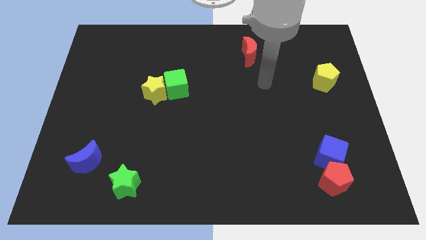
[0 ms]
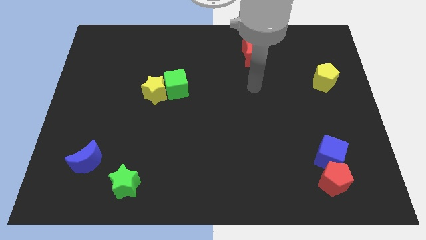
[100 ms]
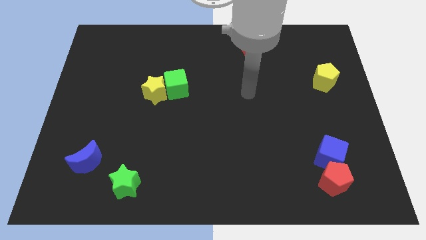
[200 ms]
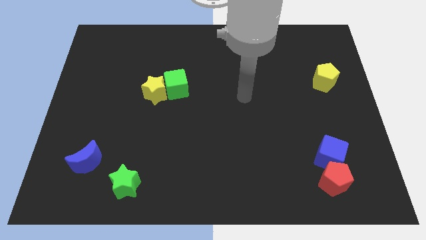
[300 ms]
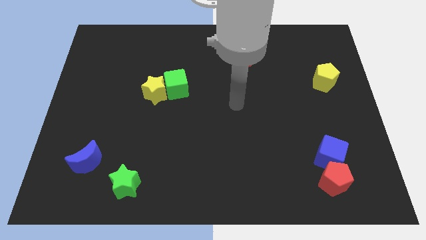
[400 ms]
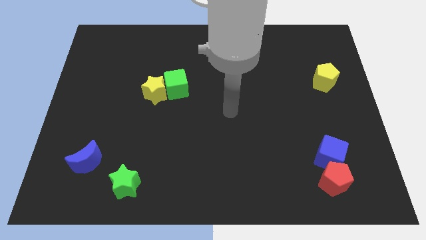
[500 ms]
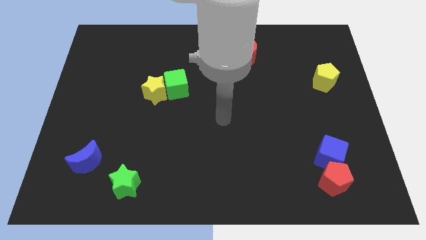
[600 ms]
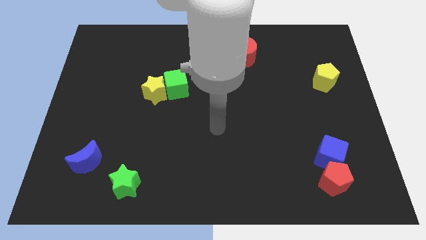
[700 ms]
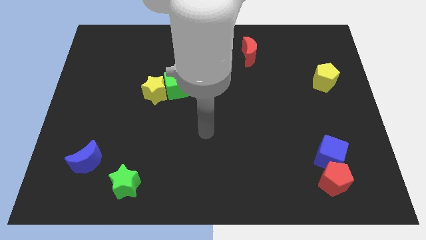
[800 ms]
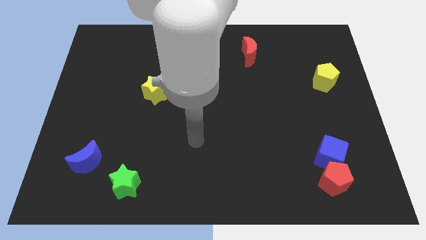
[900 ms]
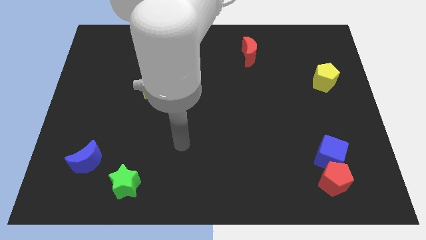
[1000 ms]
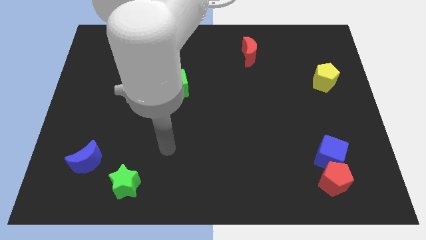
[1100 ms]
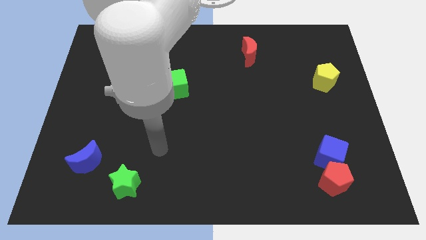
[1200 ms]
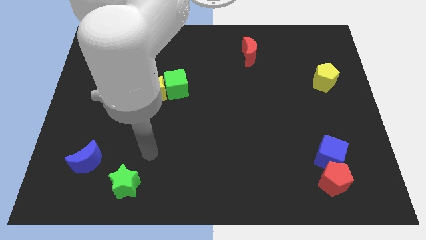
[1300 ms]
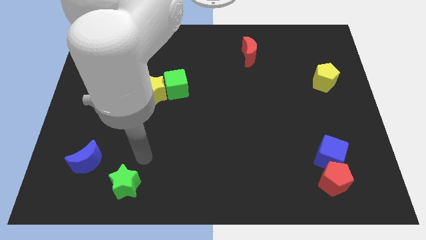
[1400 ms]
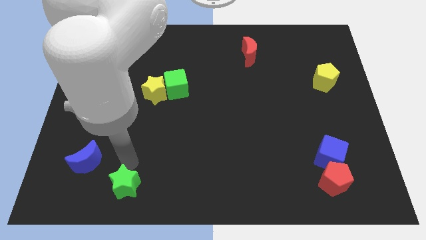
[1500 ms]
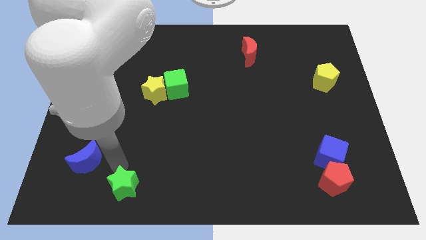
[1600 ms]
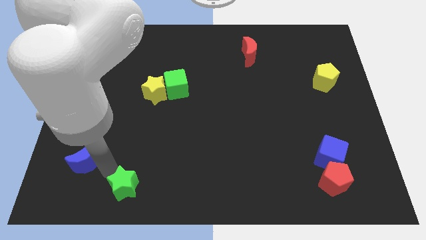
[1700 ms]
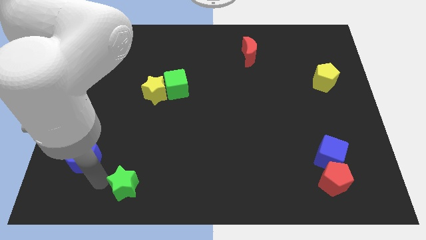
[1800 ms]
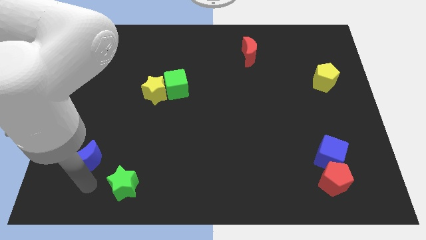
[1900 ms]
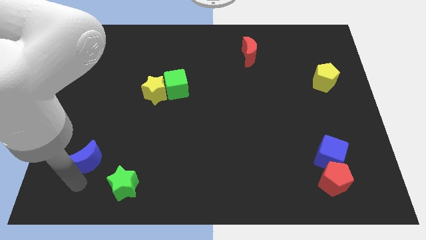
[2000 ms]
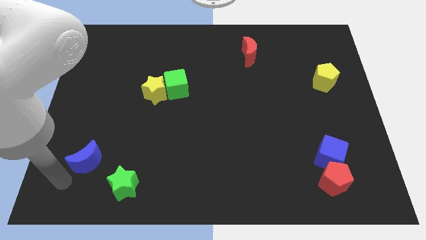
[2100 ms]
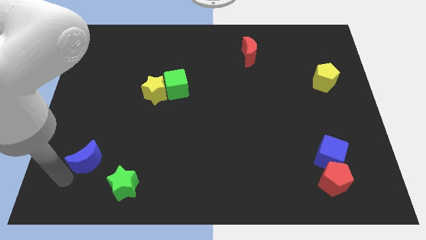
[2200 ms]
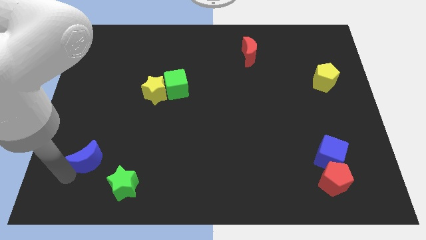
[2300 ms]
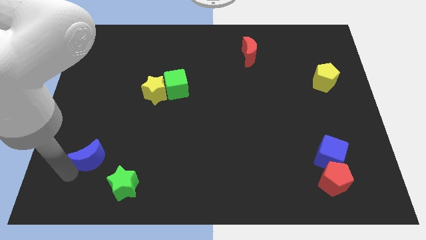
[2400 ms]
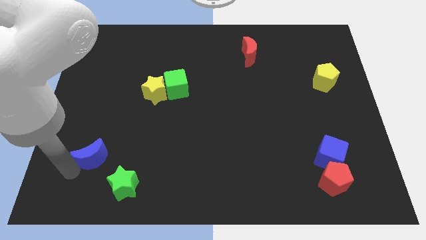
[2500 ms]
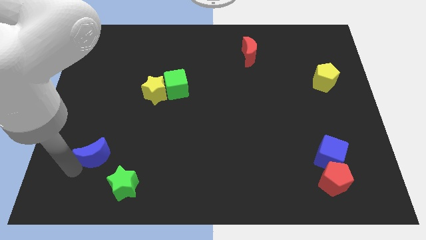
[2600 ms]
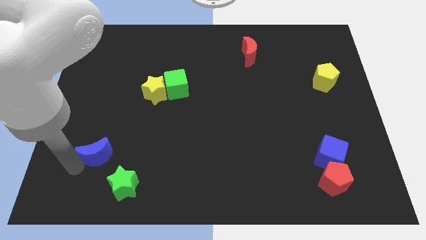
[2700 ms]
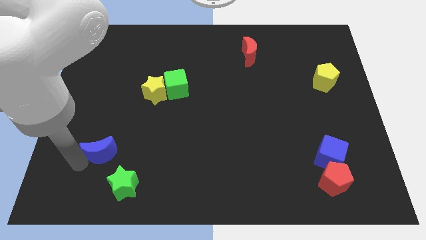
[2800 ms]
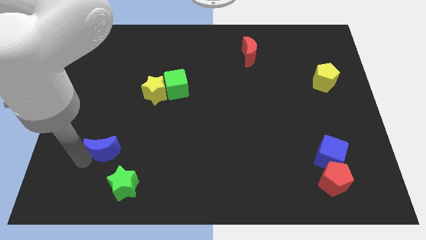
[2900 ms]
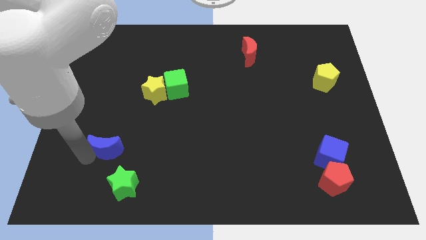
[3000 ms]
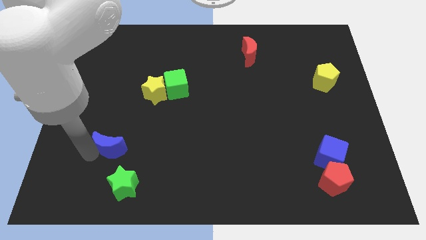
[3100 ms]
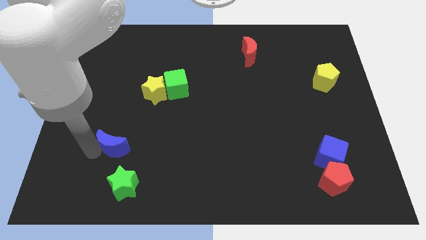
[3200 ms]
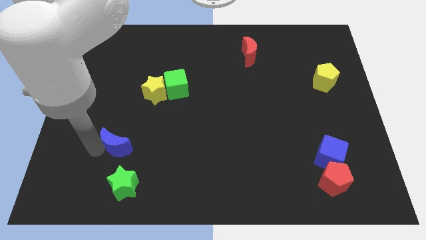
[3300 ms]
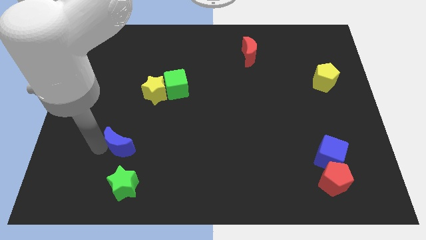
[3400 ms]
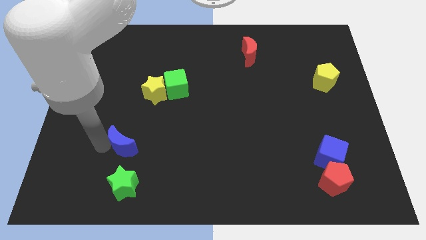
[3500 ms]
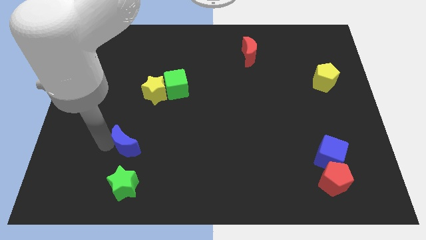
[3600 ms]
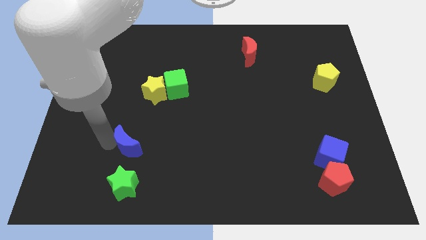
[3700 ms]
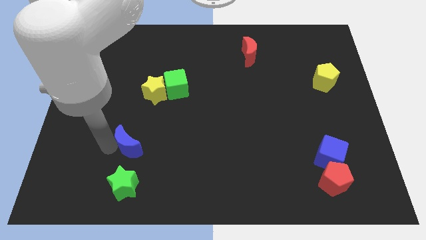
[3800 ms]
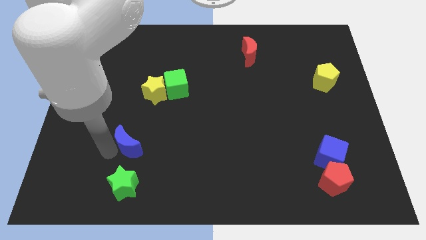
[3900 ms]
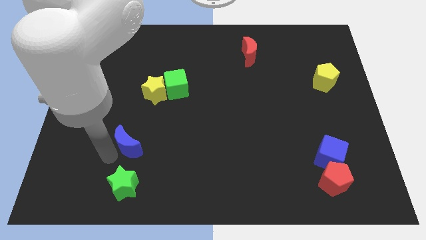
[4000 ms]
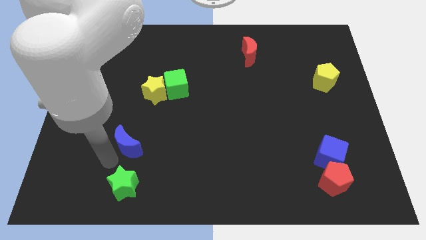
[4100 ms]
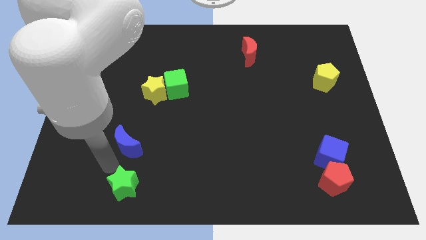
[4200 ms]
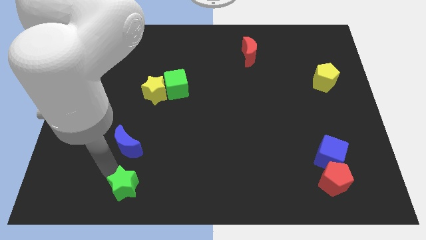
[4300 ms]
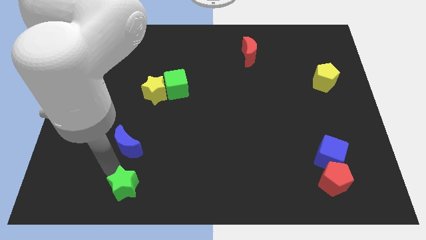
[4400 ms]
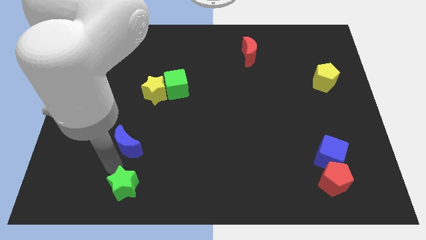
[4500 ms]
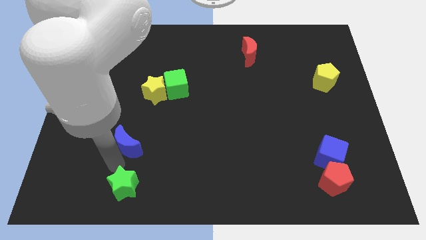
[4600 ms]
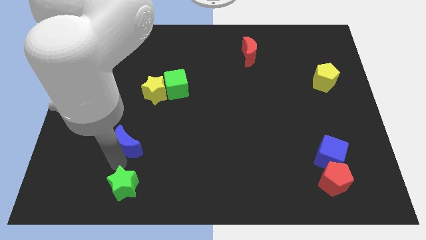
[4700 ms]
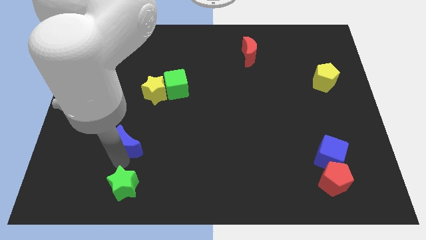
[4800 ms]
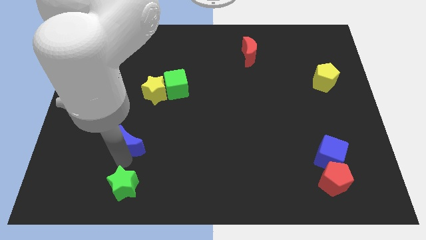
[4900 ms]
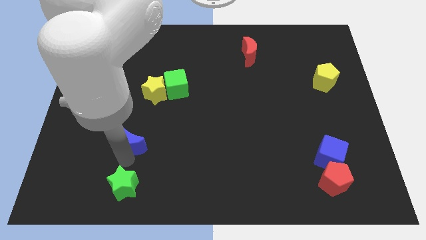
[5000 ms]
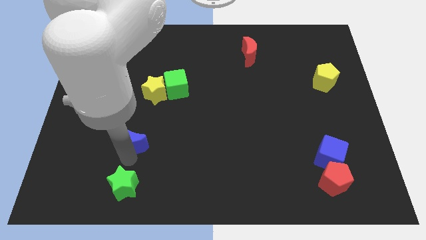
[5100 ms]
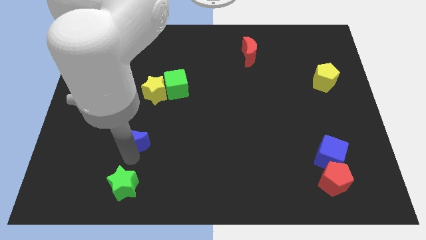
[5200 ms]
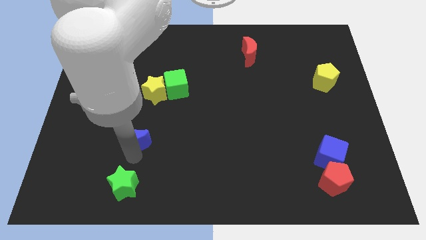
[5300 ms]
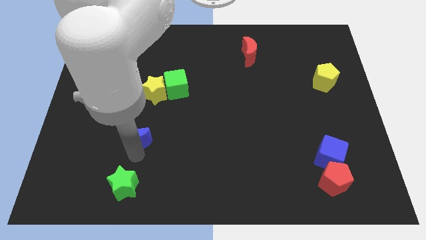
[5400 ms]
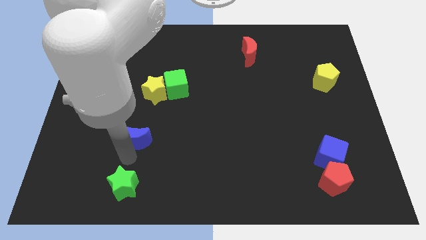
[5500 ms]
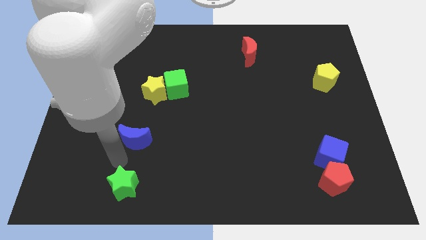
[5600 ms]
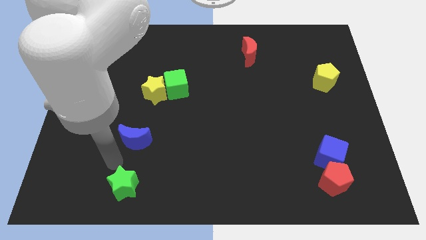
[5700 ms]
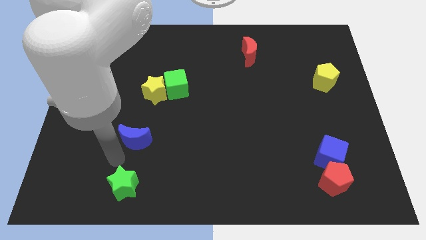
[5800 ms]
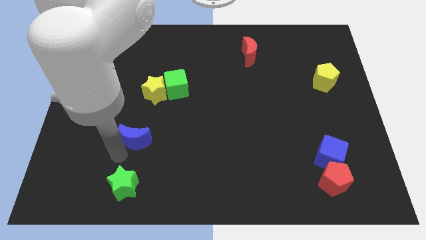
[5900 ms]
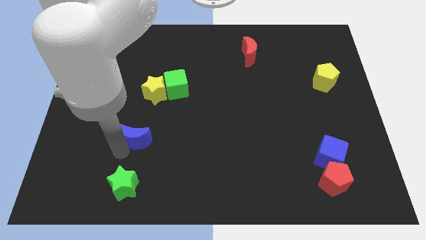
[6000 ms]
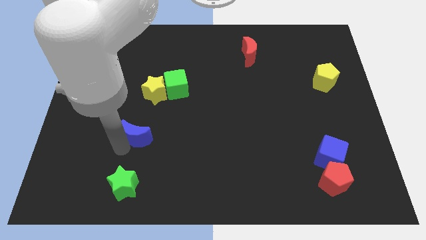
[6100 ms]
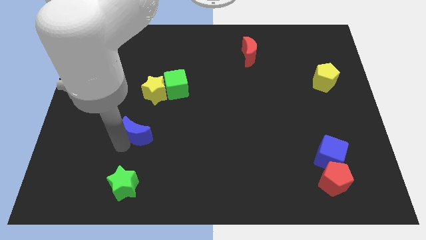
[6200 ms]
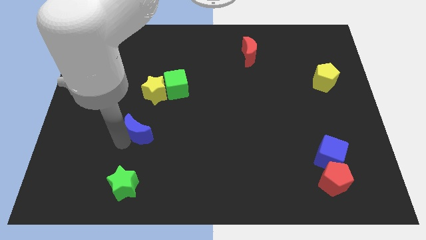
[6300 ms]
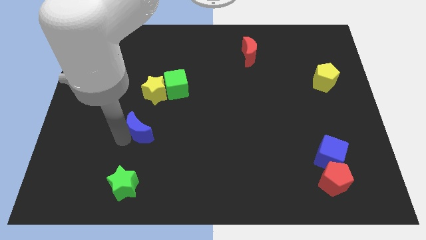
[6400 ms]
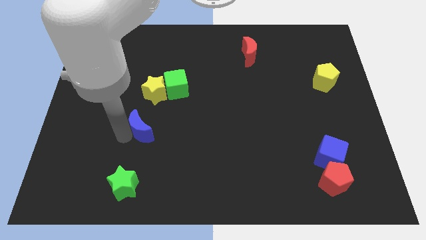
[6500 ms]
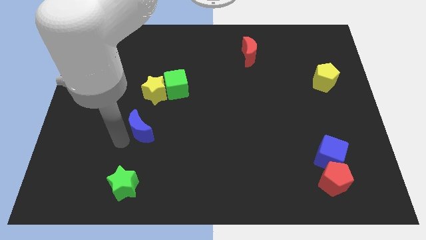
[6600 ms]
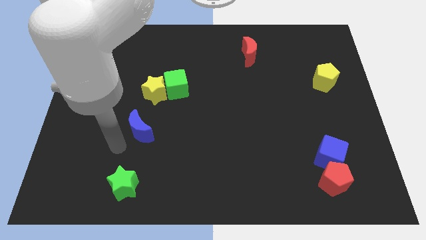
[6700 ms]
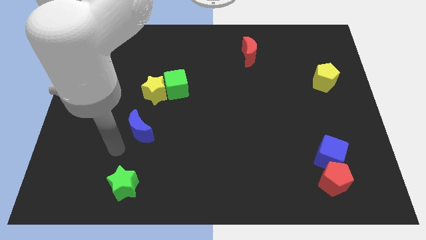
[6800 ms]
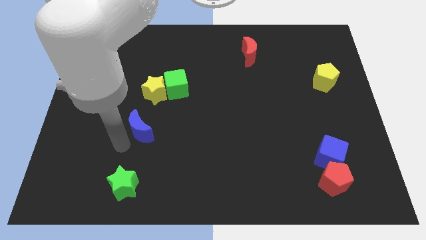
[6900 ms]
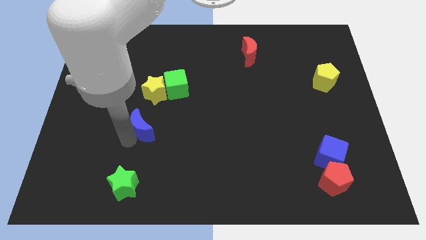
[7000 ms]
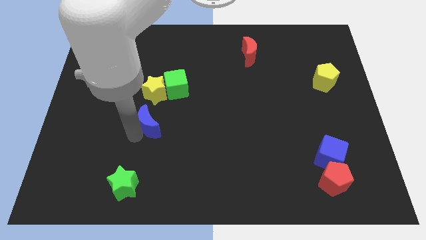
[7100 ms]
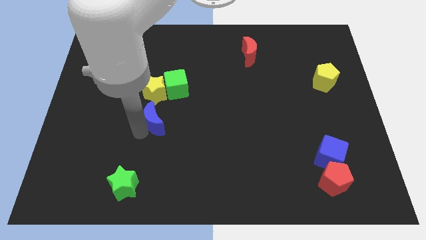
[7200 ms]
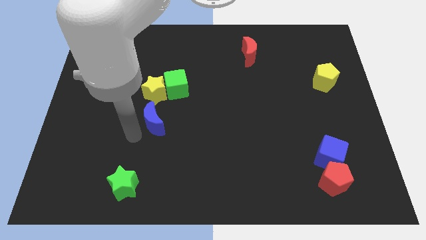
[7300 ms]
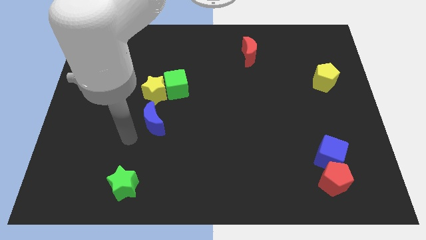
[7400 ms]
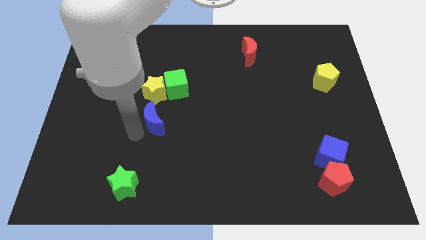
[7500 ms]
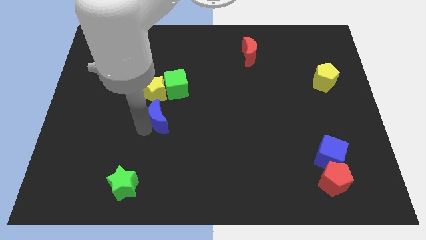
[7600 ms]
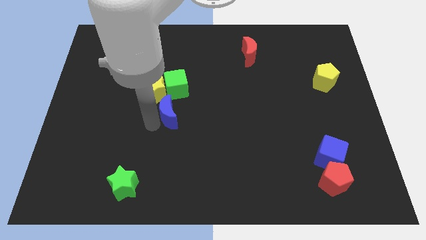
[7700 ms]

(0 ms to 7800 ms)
move the blue moon up and then to the right

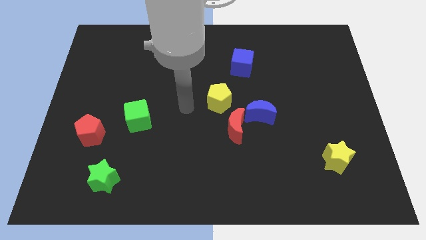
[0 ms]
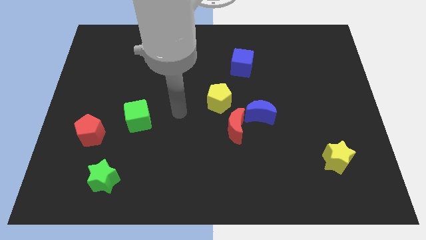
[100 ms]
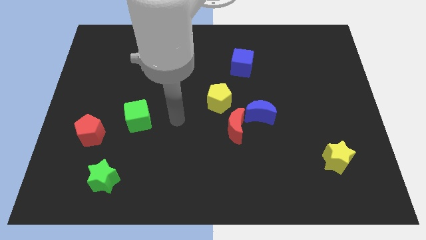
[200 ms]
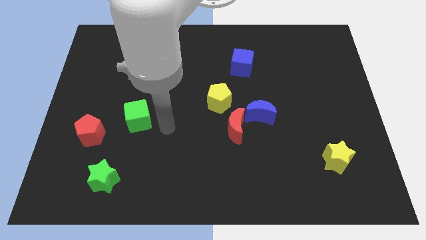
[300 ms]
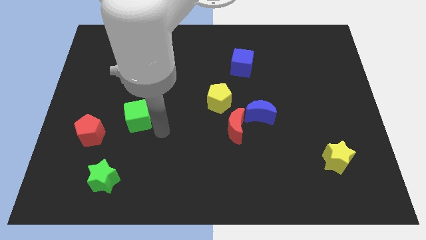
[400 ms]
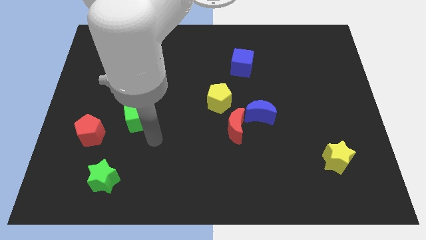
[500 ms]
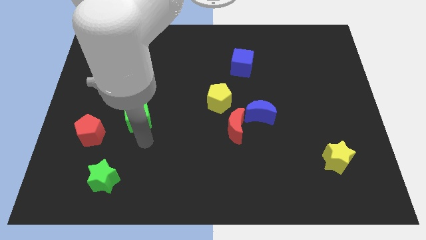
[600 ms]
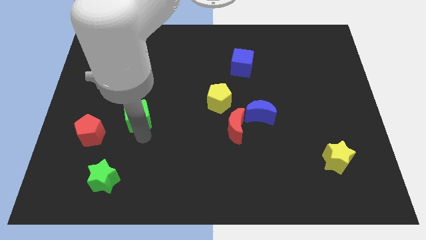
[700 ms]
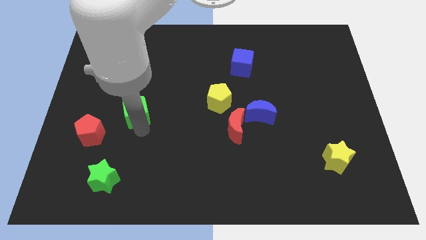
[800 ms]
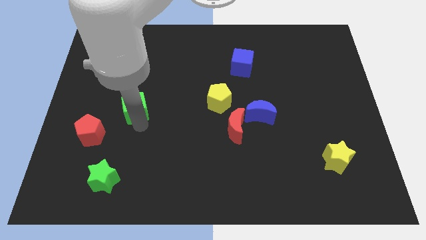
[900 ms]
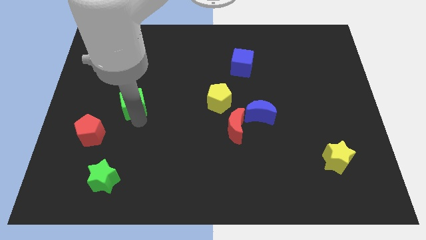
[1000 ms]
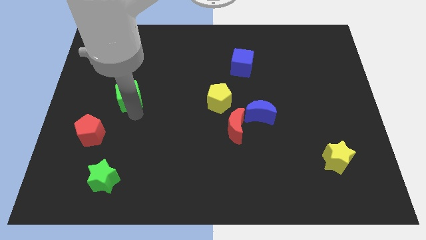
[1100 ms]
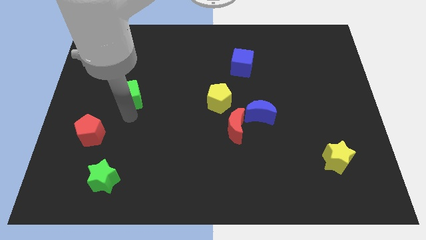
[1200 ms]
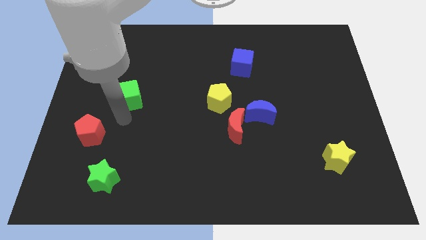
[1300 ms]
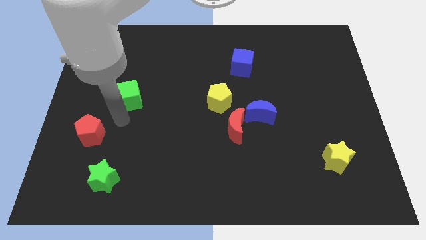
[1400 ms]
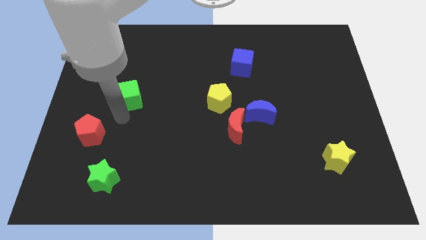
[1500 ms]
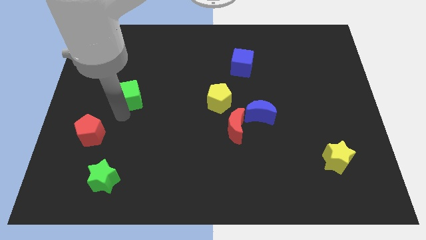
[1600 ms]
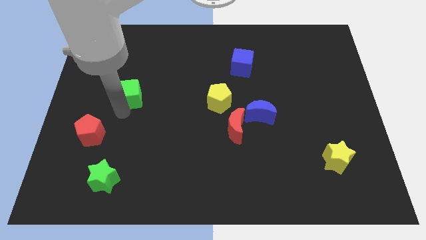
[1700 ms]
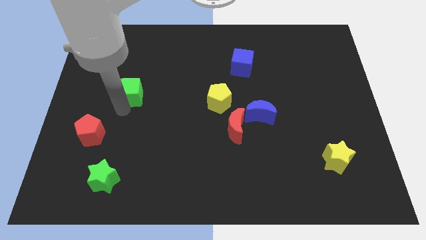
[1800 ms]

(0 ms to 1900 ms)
slide the green cube a bit up
